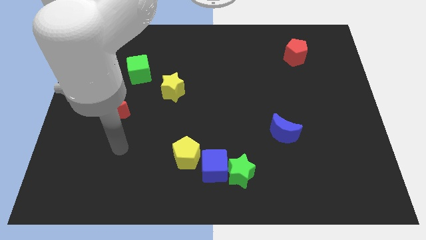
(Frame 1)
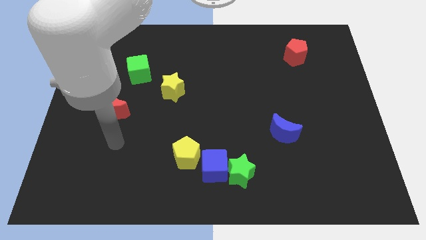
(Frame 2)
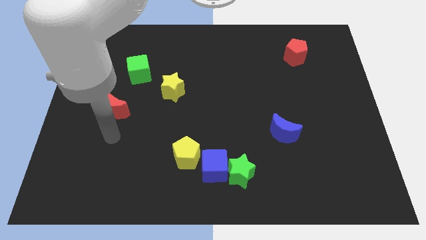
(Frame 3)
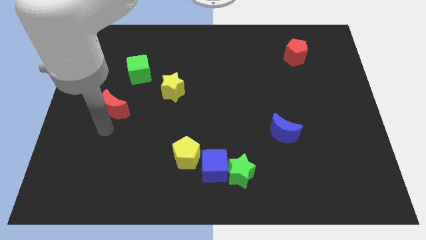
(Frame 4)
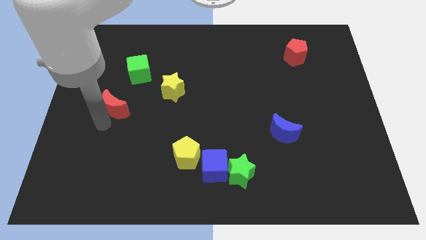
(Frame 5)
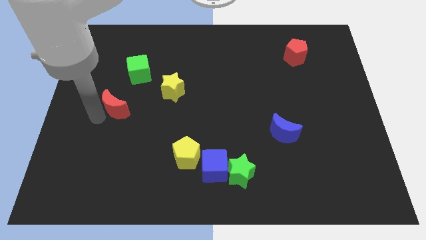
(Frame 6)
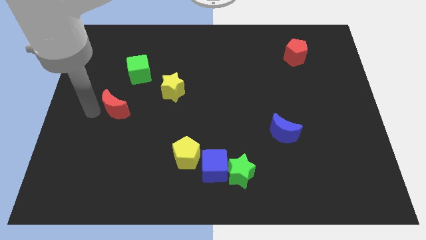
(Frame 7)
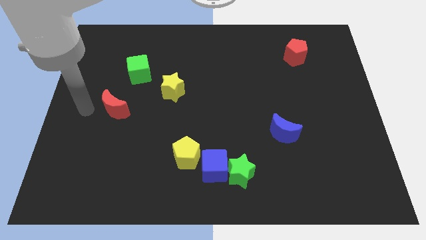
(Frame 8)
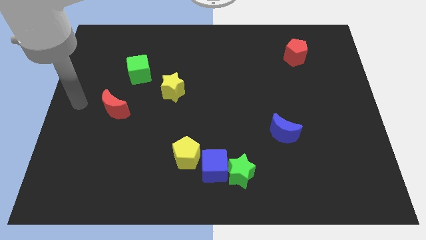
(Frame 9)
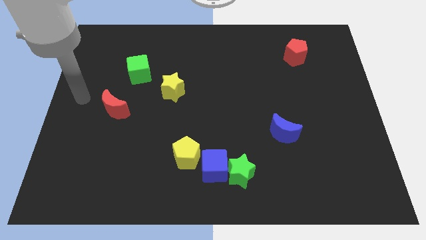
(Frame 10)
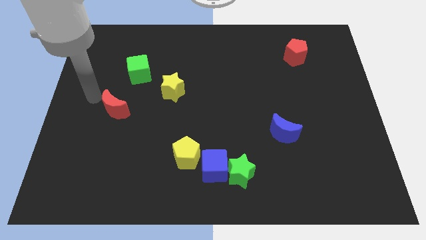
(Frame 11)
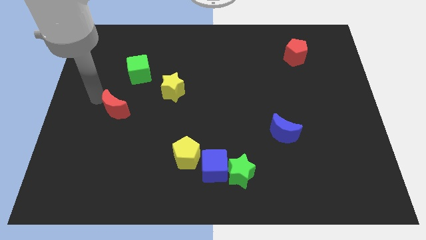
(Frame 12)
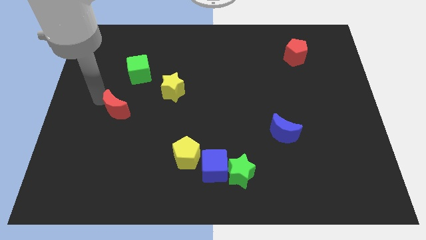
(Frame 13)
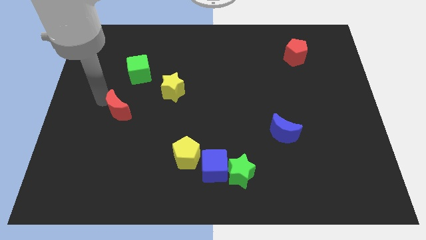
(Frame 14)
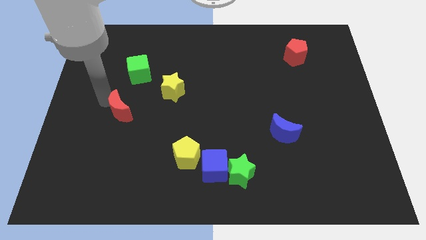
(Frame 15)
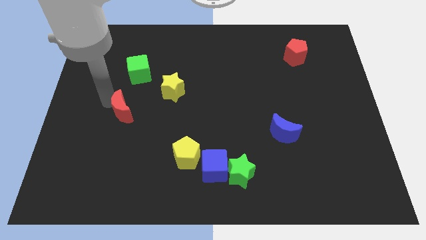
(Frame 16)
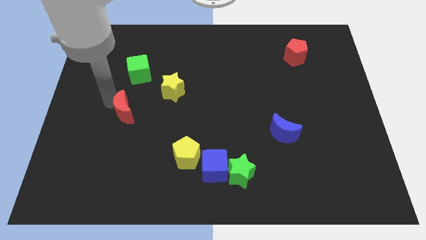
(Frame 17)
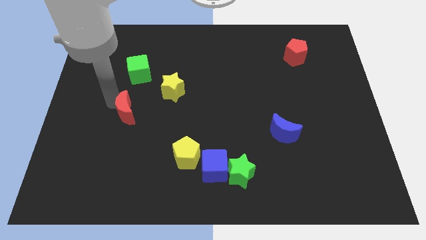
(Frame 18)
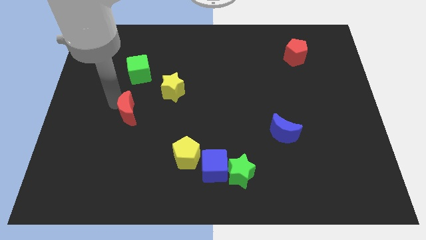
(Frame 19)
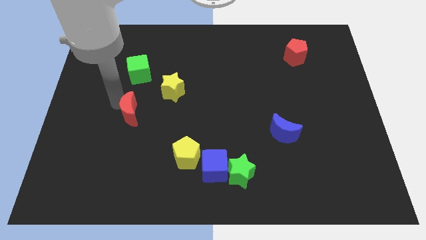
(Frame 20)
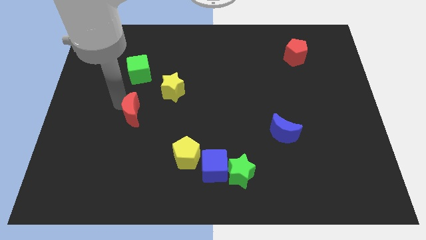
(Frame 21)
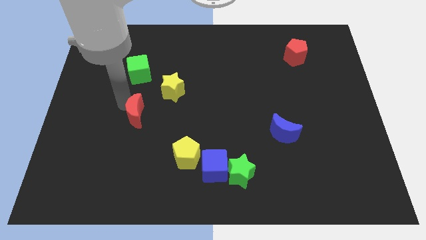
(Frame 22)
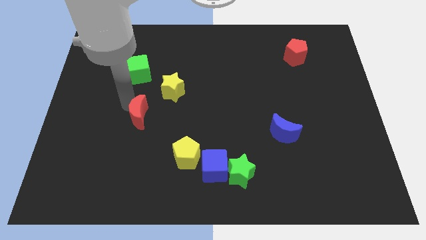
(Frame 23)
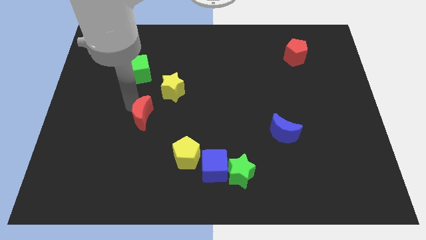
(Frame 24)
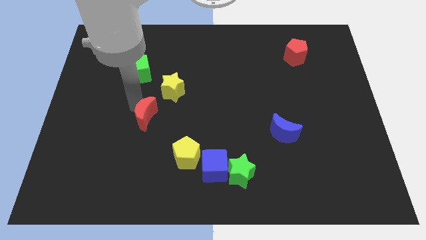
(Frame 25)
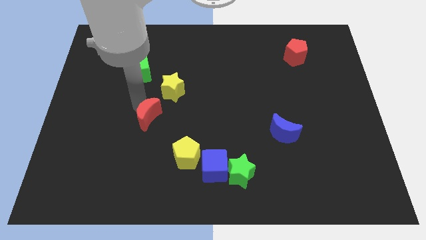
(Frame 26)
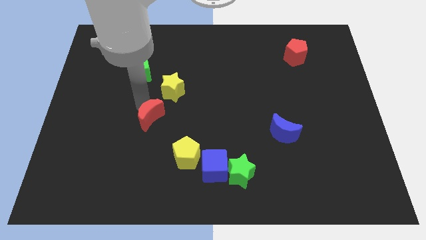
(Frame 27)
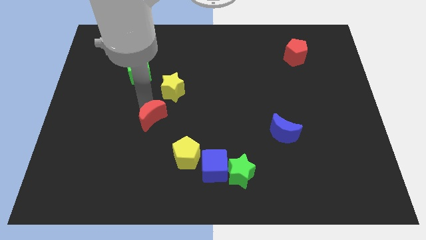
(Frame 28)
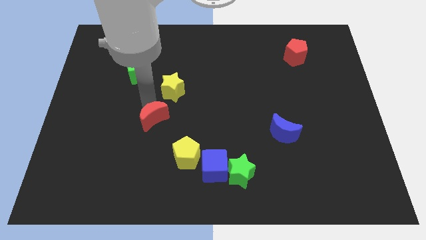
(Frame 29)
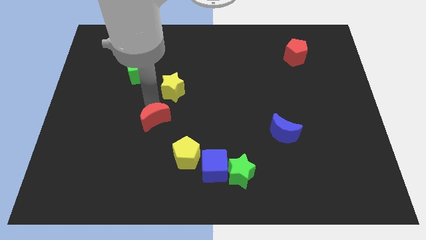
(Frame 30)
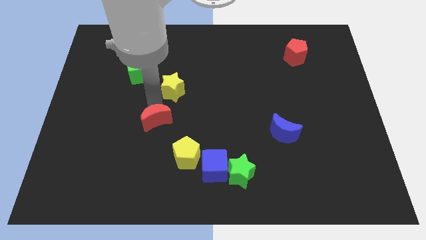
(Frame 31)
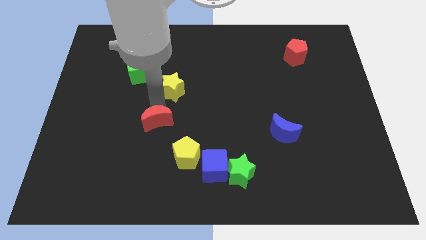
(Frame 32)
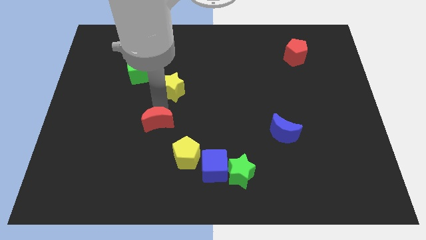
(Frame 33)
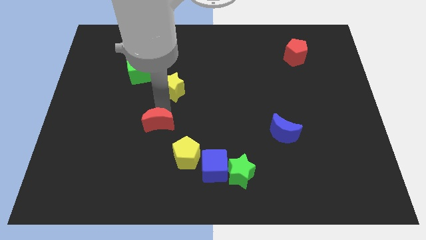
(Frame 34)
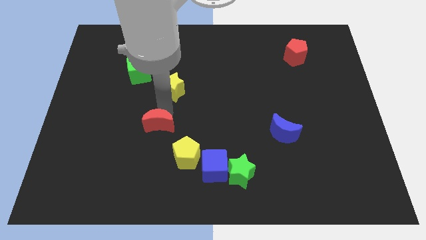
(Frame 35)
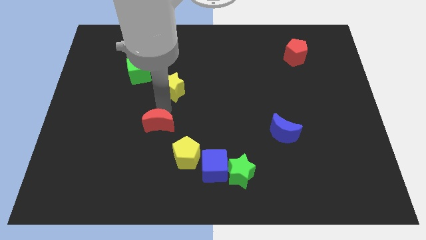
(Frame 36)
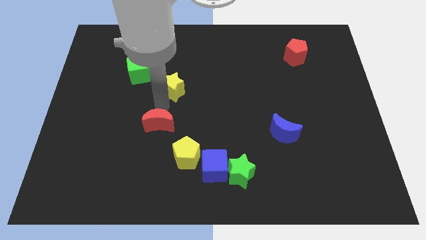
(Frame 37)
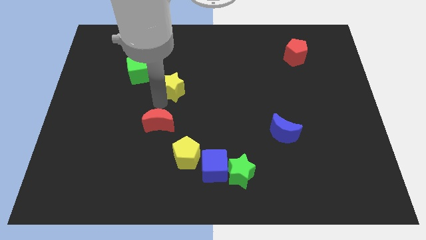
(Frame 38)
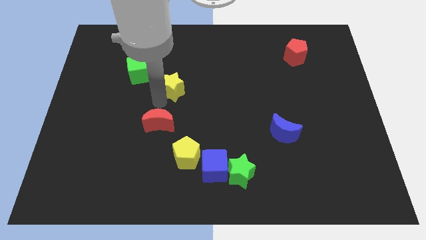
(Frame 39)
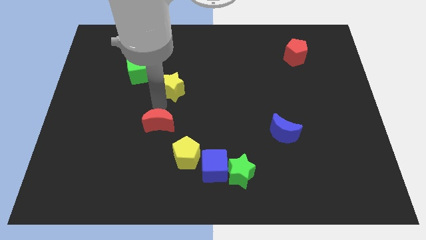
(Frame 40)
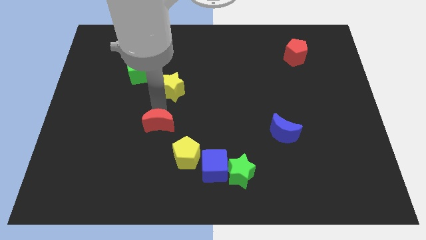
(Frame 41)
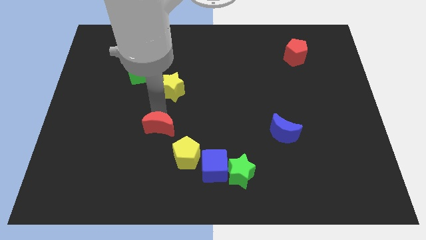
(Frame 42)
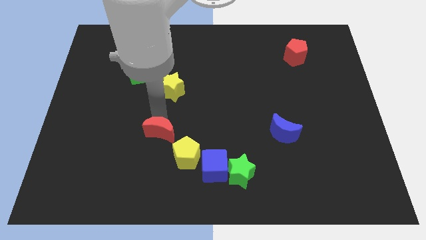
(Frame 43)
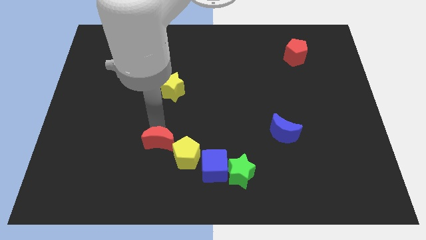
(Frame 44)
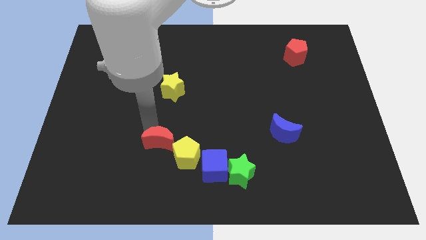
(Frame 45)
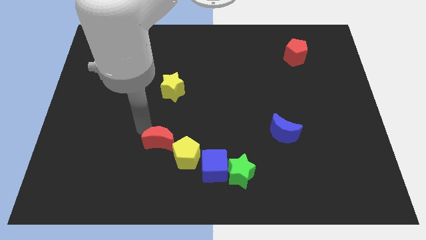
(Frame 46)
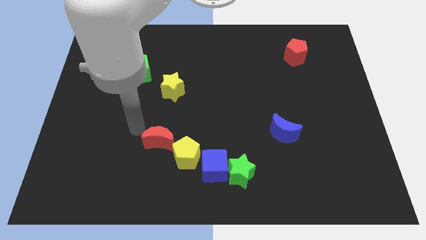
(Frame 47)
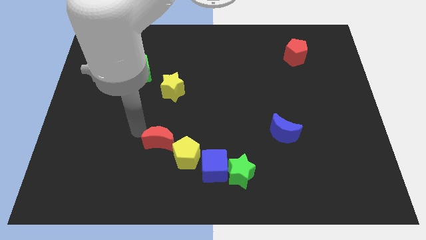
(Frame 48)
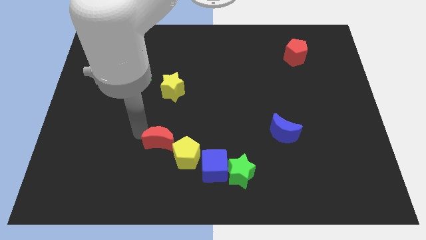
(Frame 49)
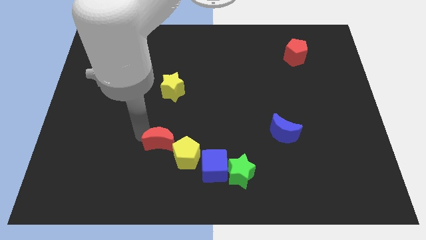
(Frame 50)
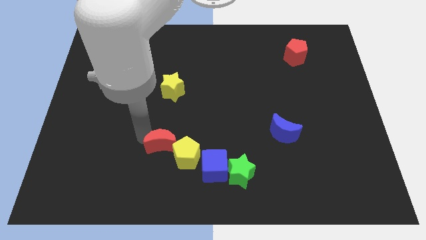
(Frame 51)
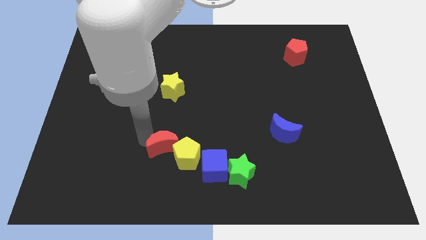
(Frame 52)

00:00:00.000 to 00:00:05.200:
push the red moon close to the yellow pentagon

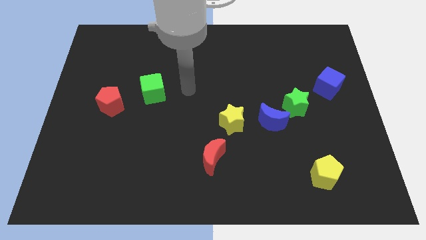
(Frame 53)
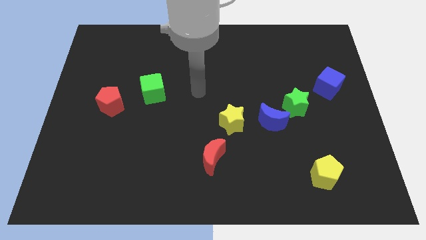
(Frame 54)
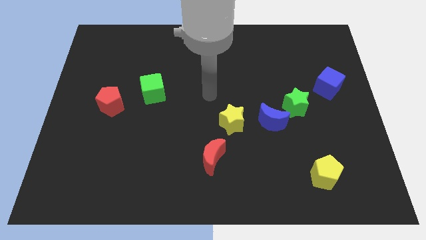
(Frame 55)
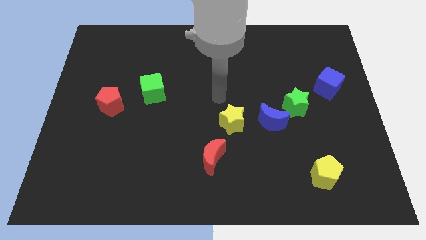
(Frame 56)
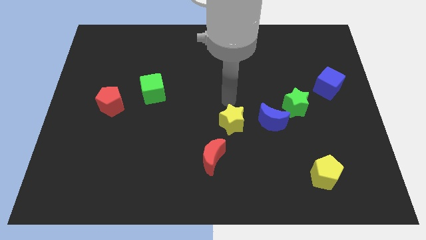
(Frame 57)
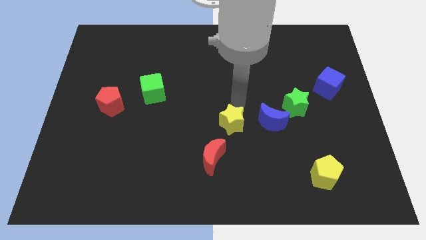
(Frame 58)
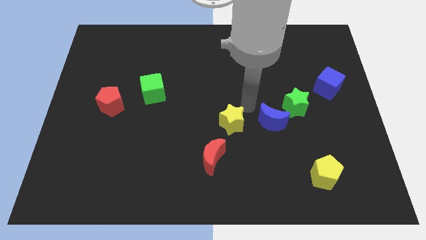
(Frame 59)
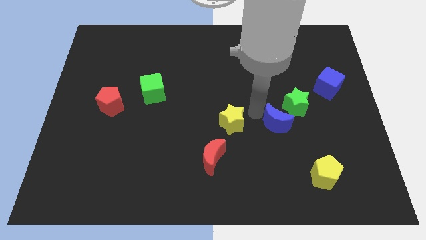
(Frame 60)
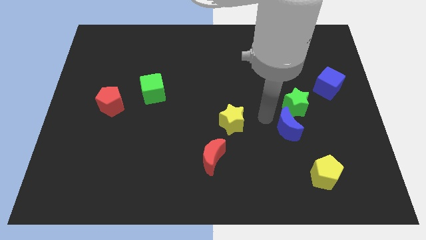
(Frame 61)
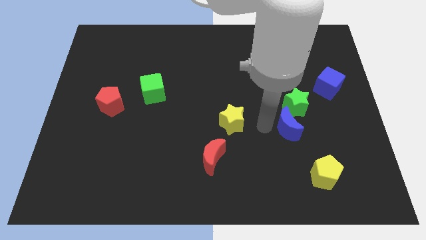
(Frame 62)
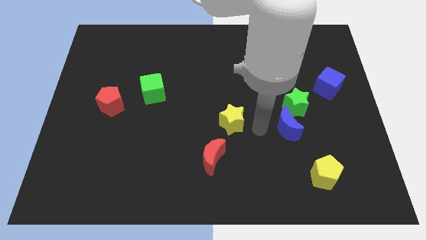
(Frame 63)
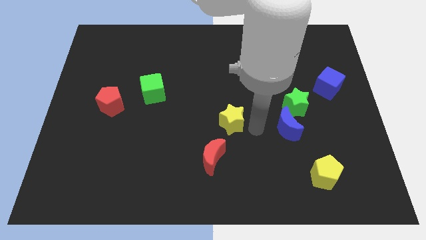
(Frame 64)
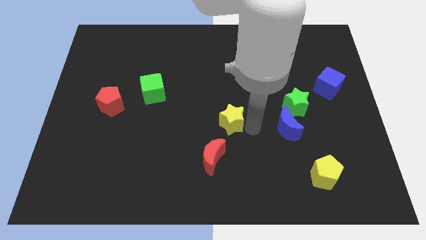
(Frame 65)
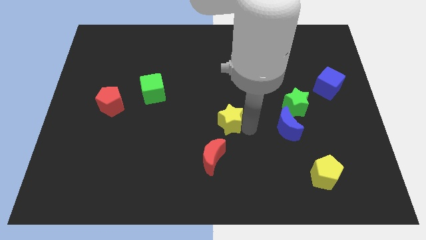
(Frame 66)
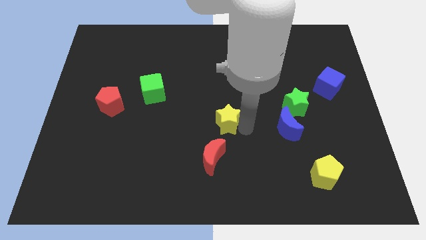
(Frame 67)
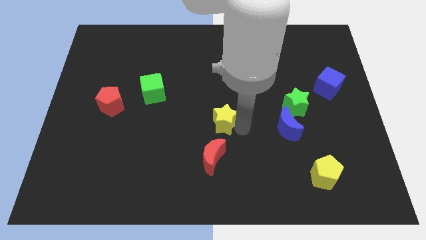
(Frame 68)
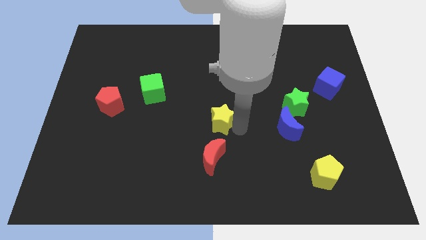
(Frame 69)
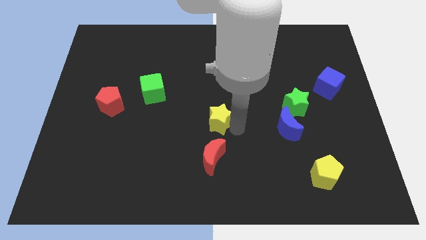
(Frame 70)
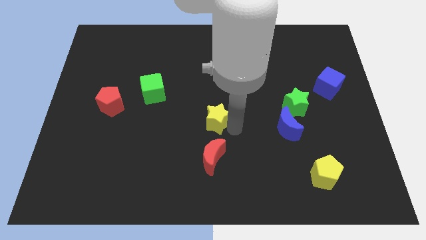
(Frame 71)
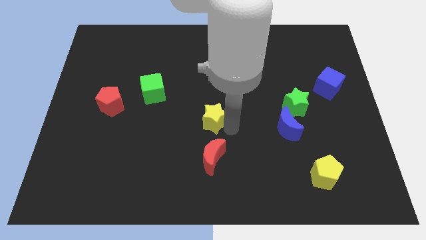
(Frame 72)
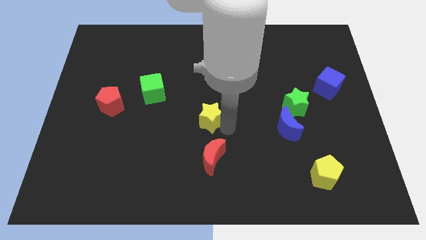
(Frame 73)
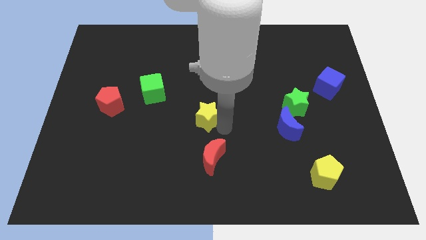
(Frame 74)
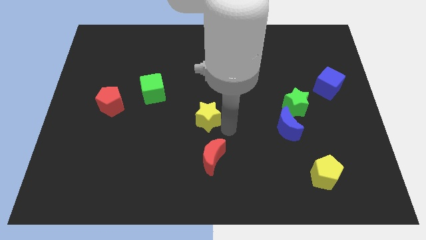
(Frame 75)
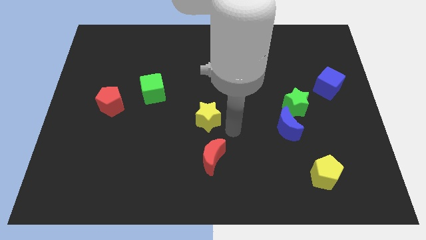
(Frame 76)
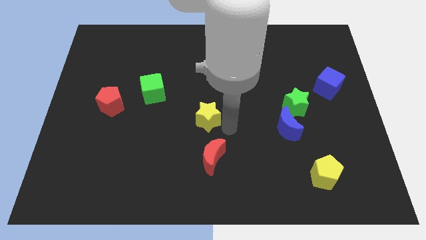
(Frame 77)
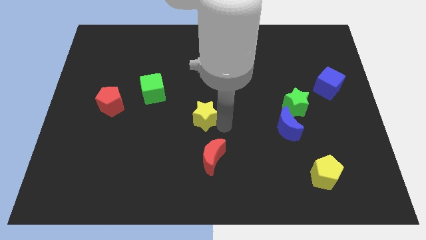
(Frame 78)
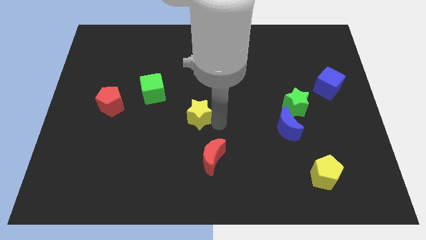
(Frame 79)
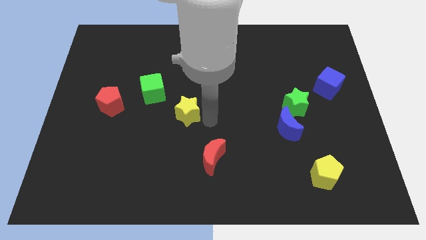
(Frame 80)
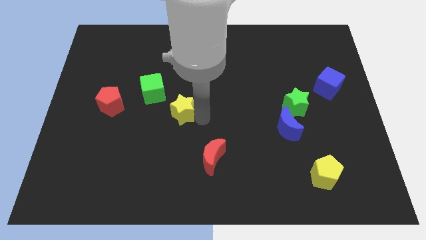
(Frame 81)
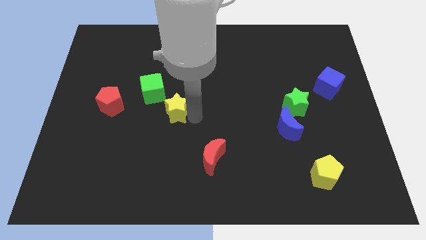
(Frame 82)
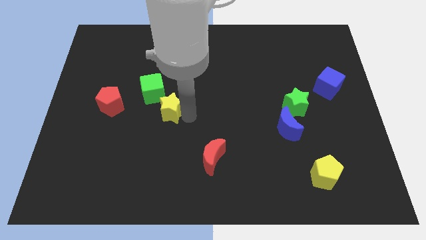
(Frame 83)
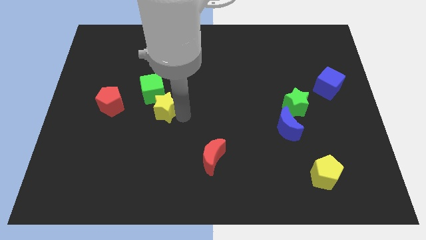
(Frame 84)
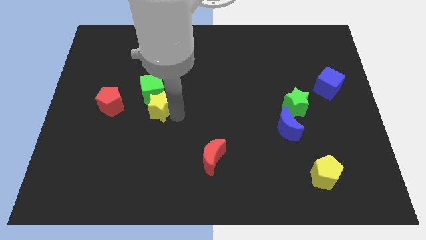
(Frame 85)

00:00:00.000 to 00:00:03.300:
move the yellow star next to the green cube
